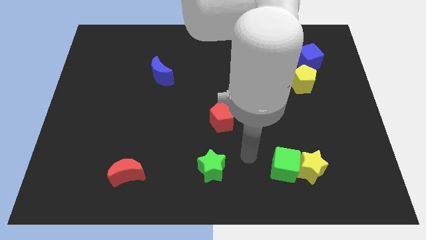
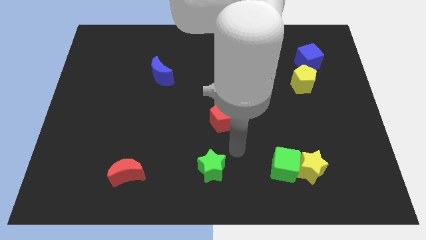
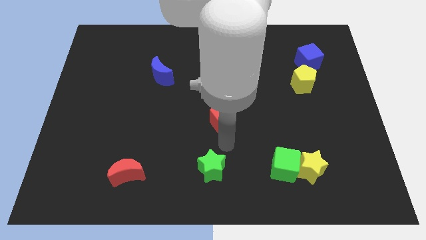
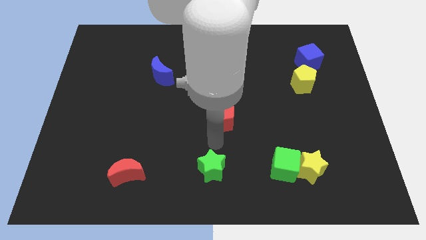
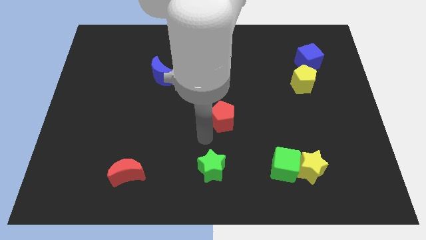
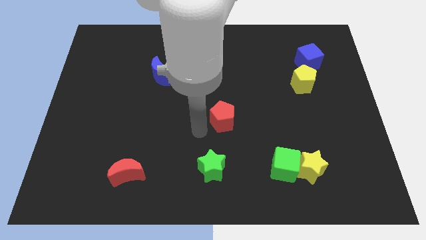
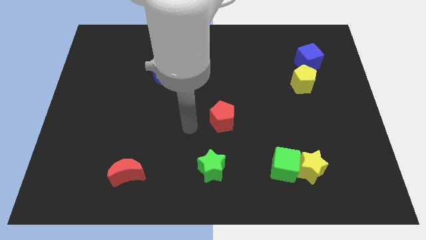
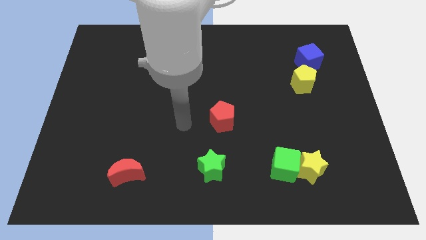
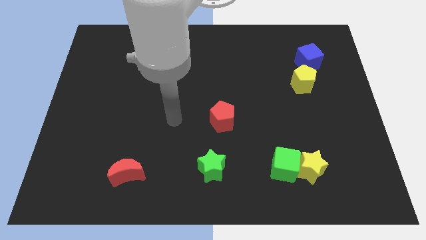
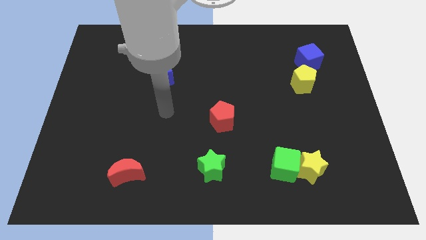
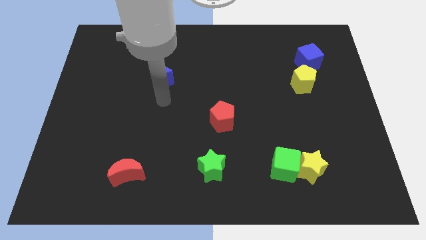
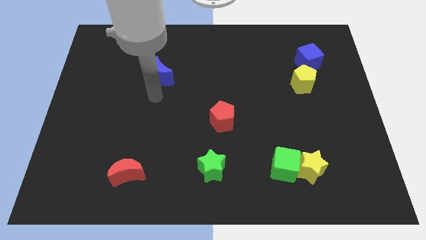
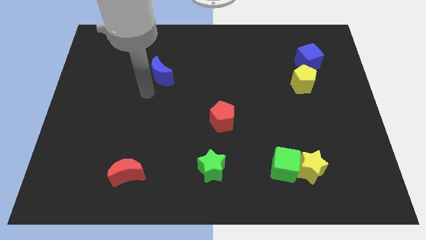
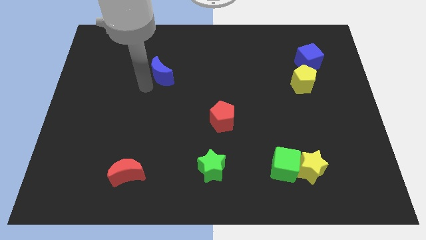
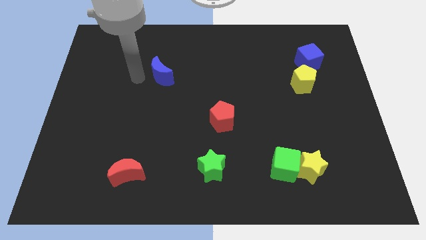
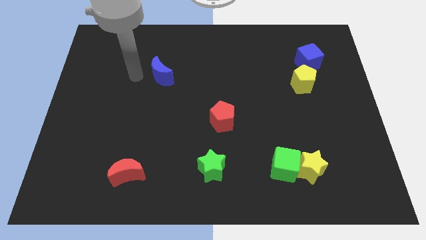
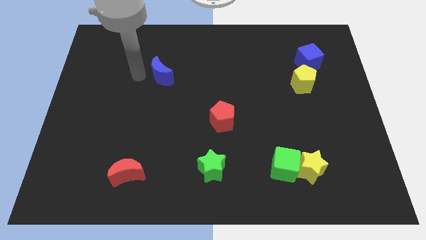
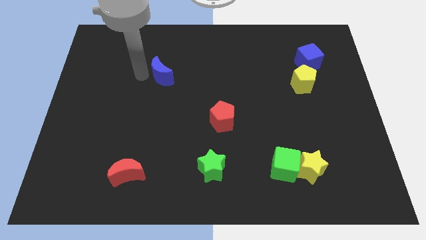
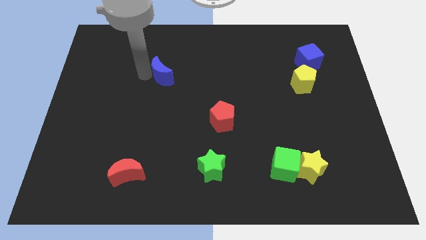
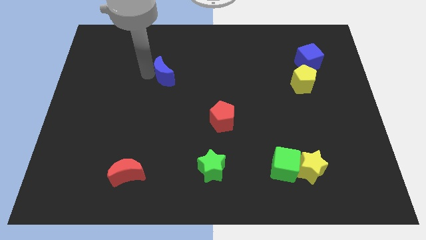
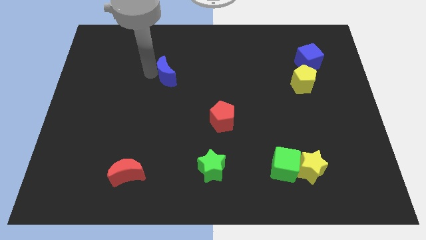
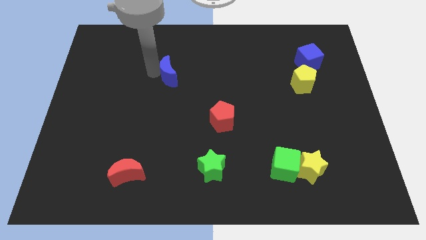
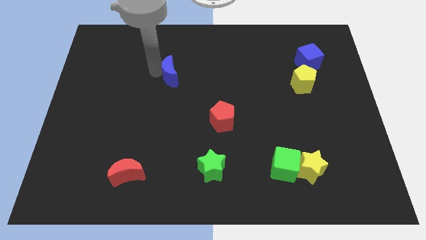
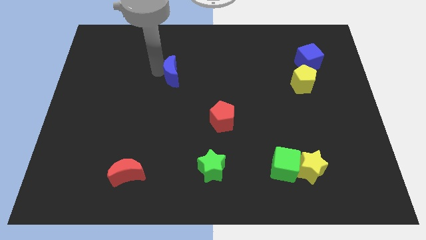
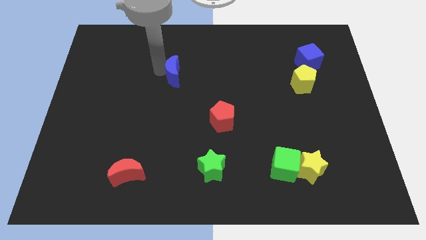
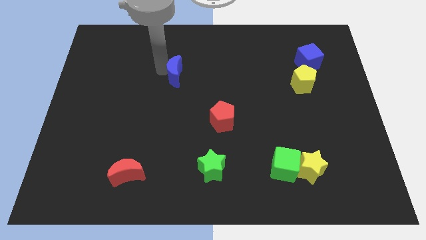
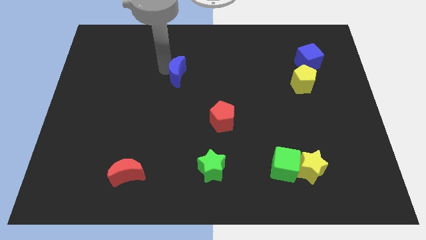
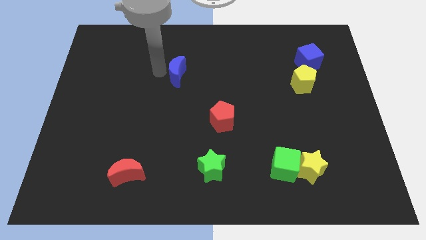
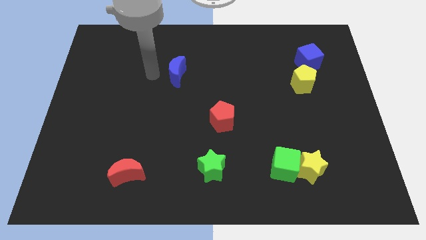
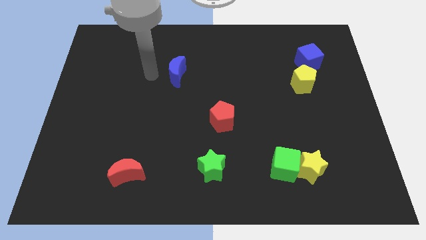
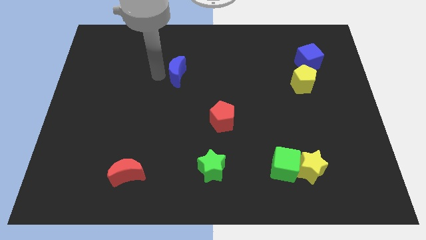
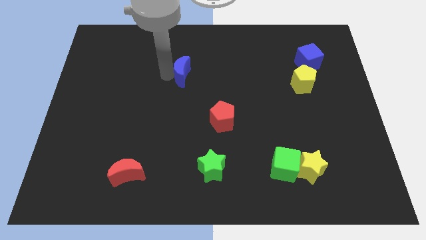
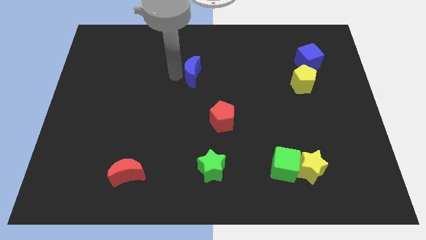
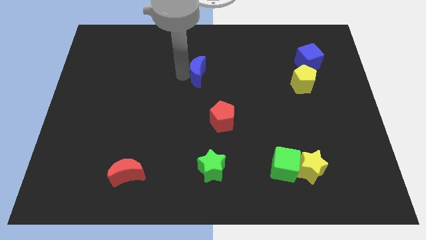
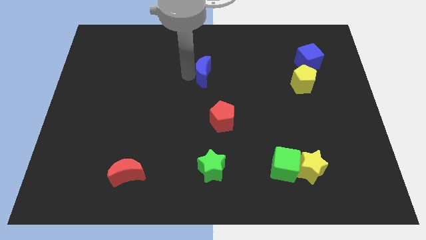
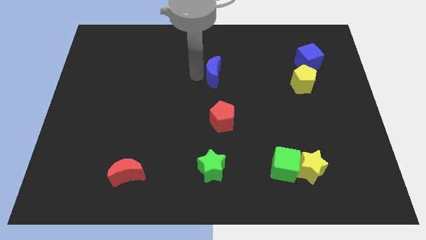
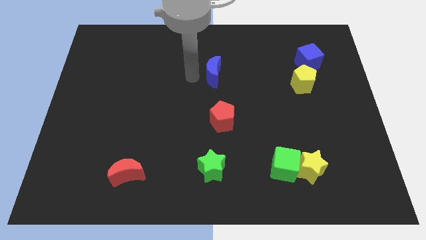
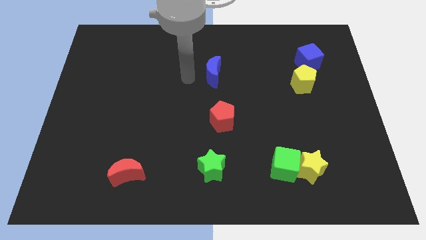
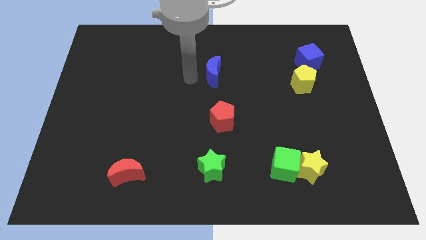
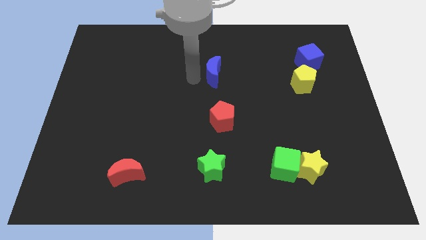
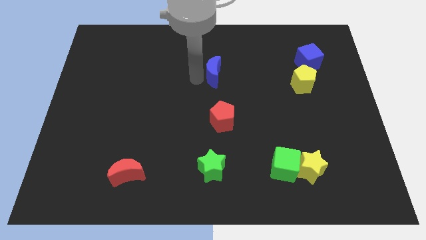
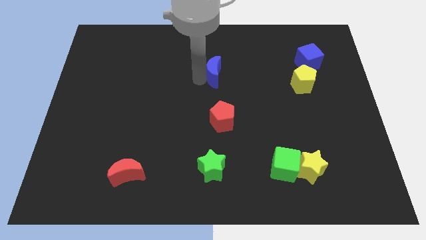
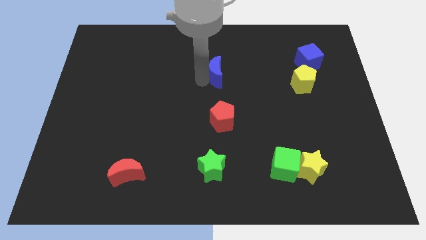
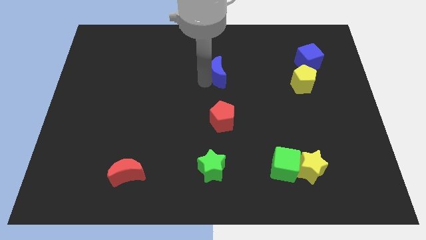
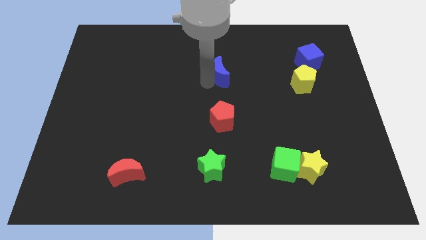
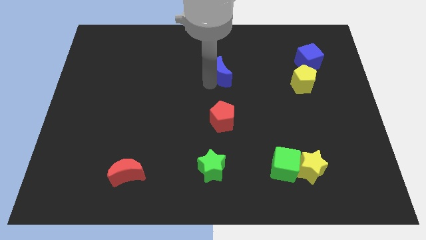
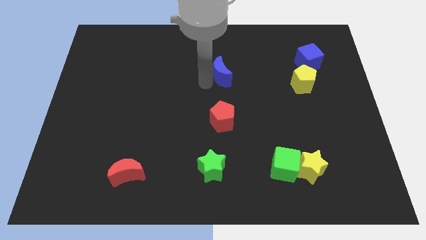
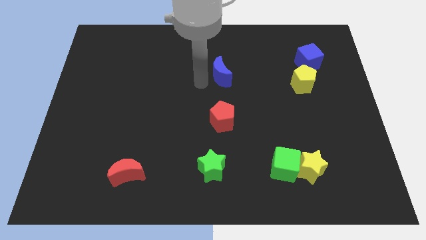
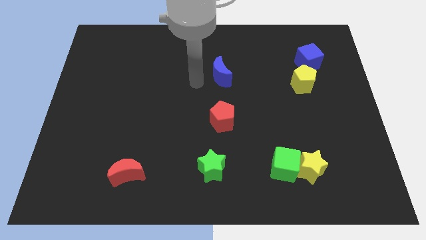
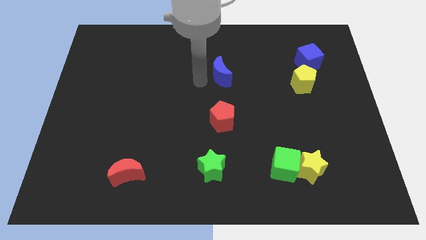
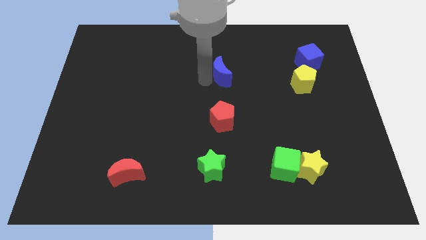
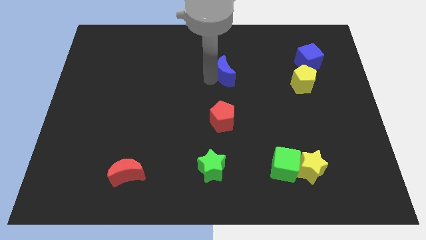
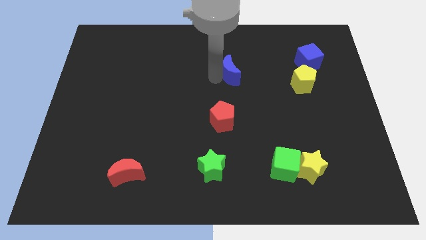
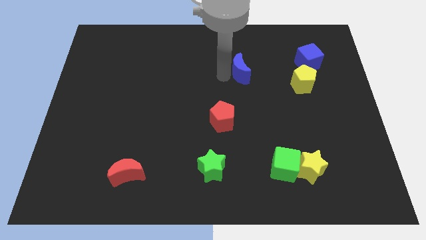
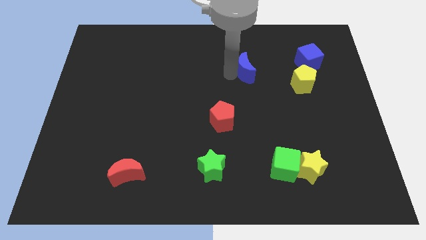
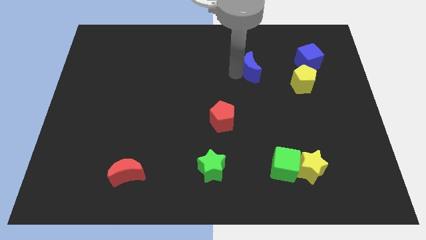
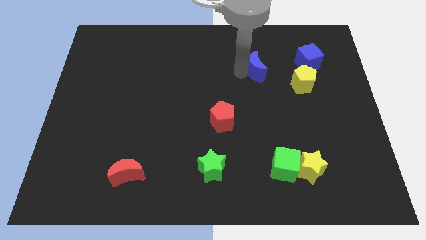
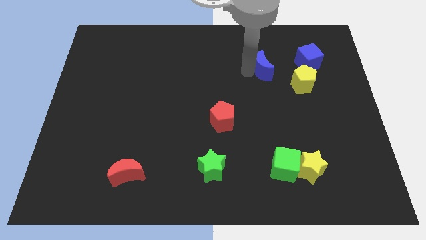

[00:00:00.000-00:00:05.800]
put the blue moon to the top left of the yellow pentagon

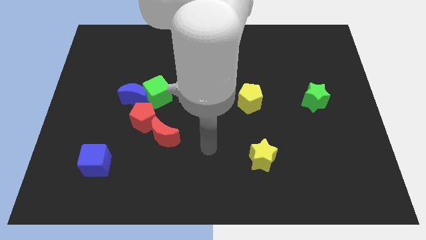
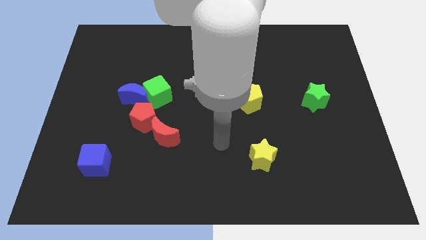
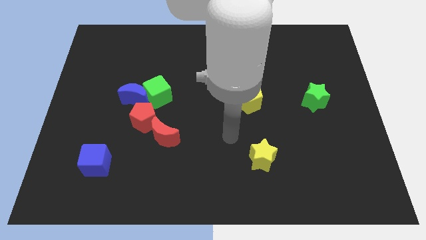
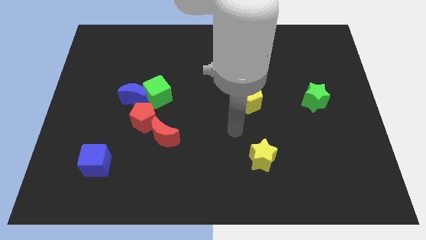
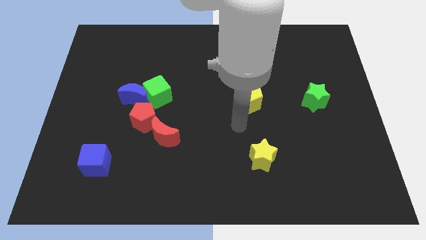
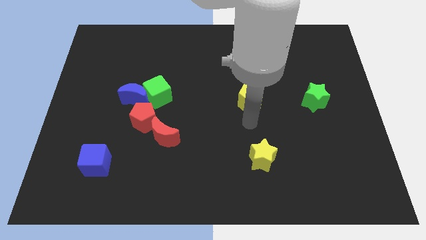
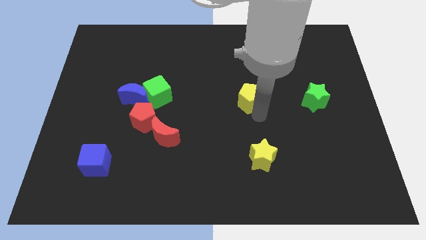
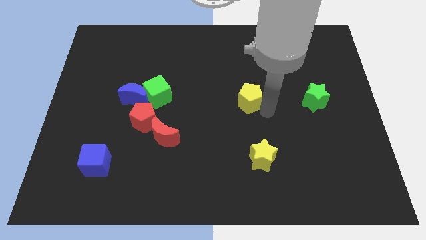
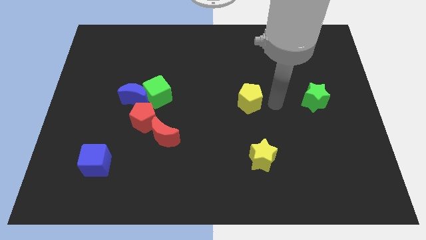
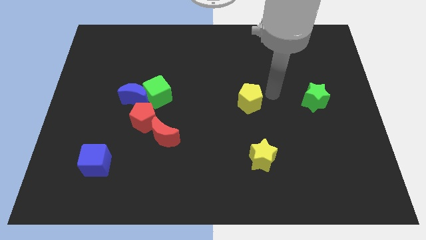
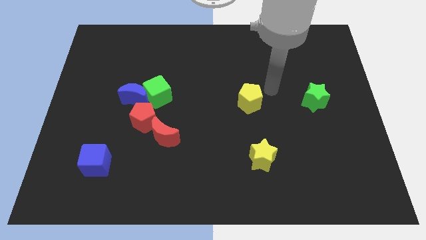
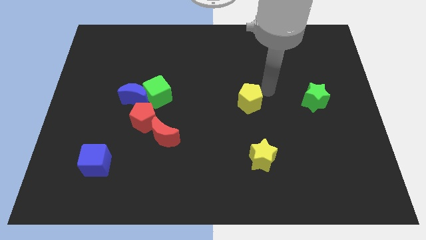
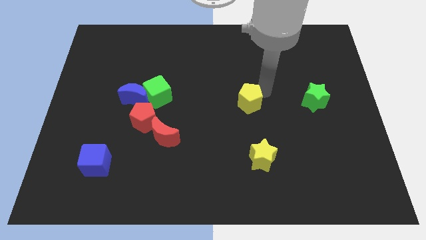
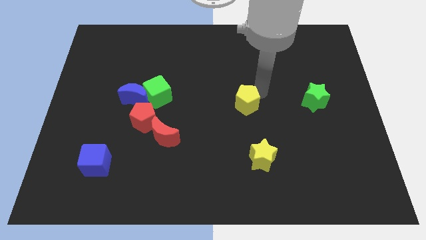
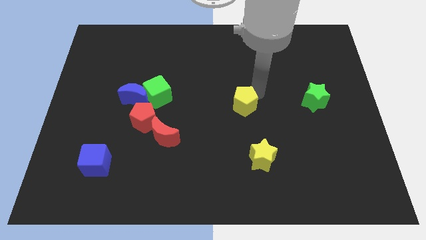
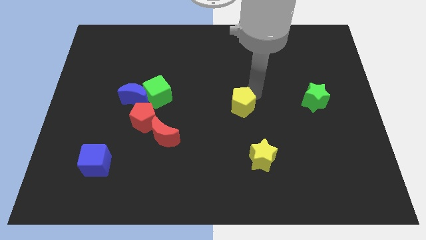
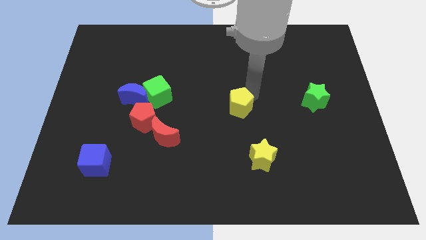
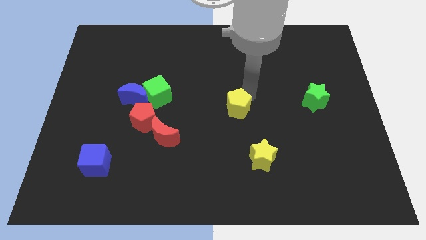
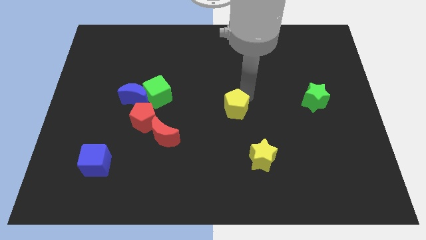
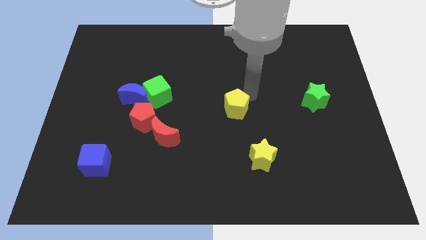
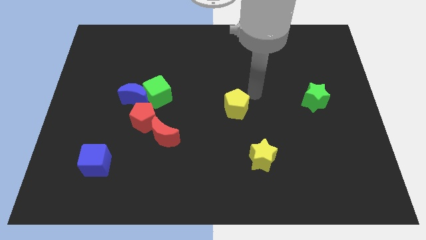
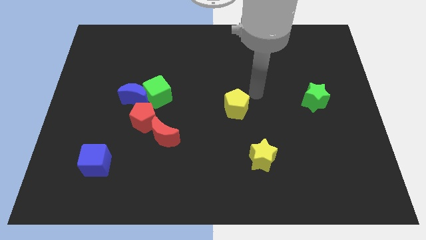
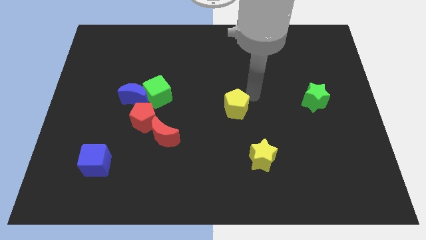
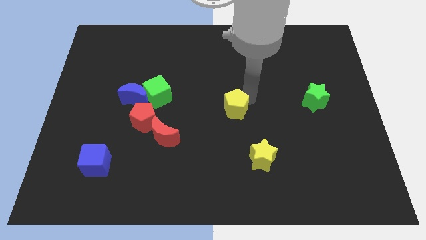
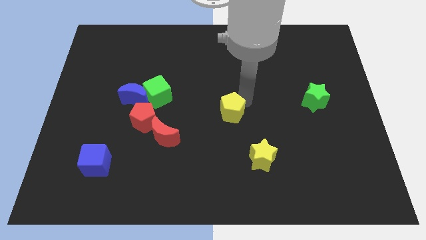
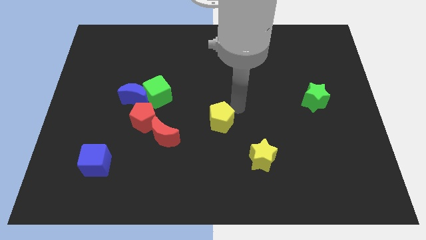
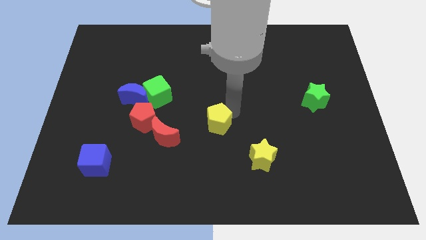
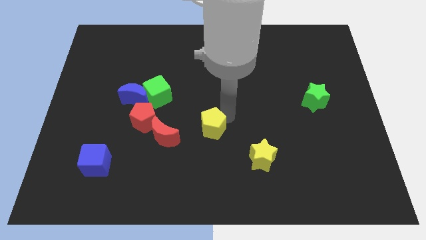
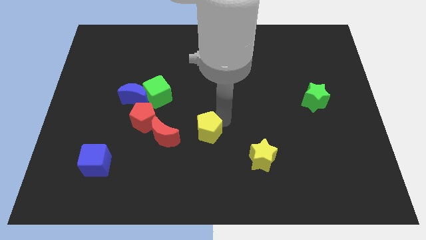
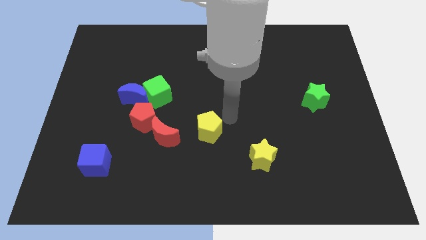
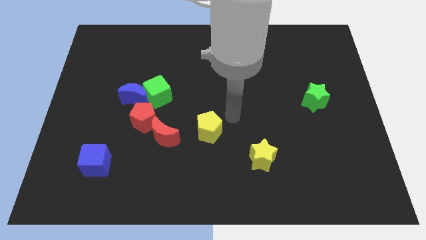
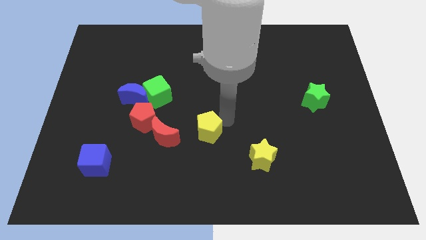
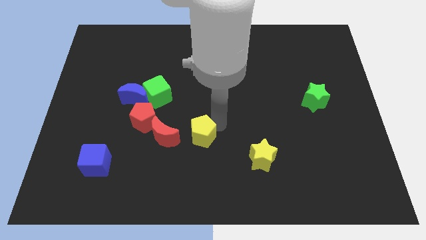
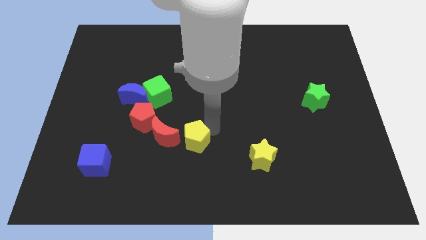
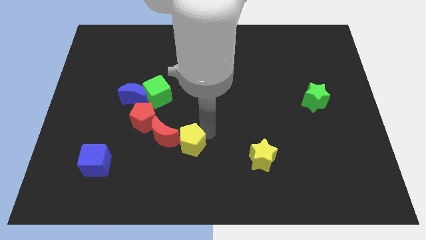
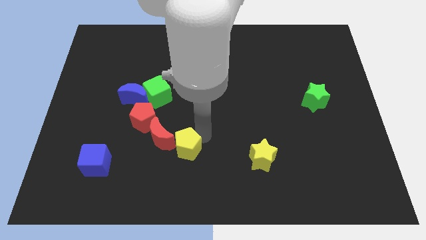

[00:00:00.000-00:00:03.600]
push the yellow pentagon diagonally down and to the right of the red pentagon
